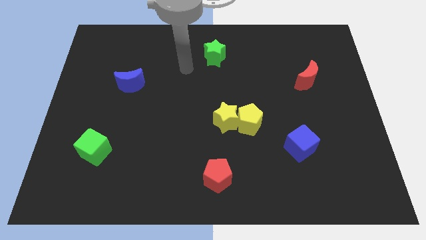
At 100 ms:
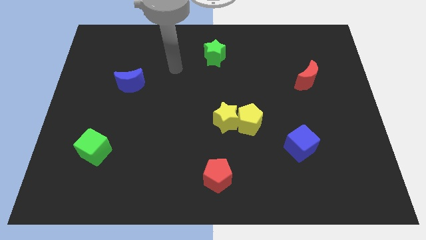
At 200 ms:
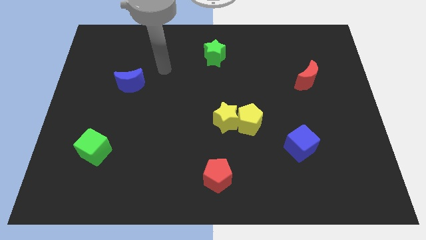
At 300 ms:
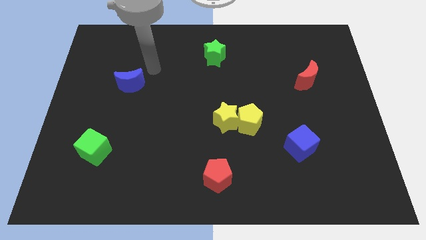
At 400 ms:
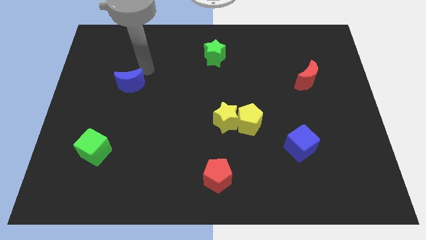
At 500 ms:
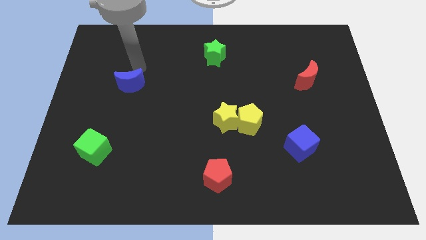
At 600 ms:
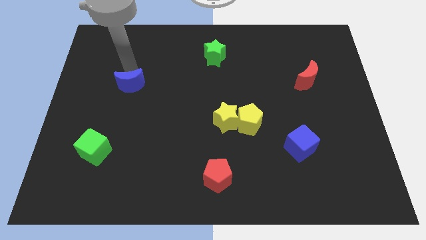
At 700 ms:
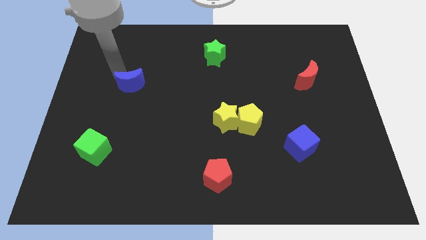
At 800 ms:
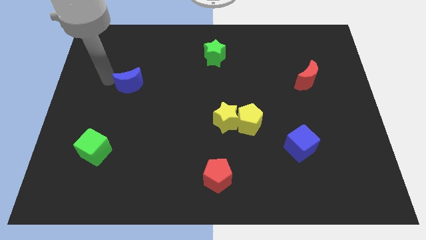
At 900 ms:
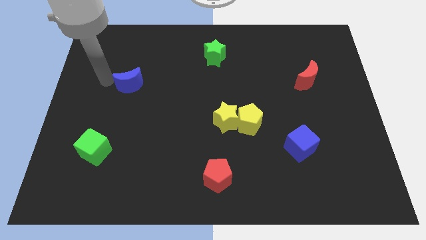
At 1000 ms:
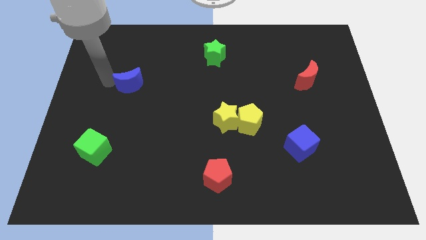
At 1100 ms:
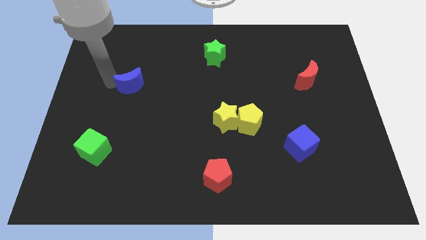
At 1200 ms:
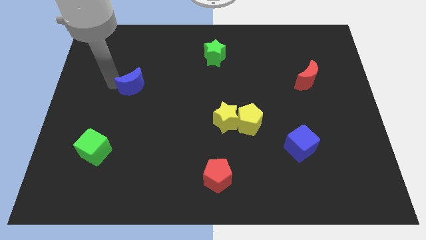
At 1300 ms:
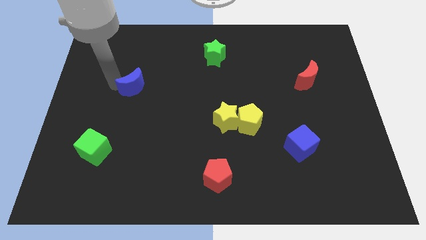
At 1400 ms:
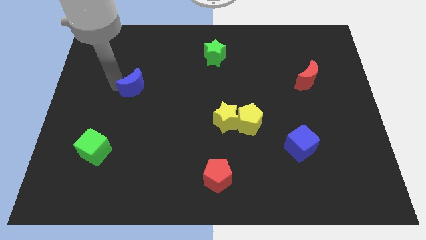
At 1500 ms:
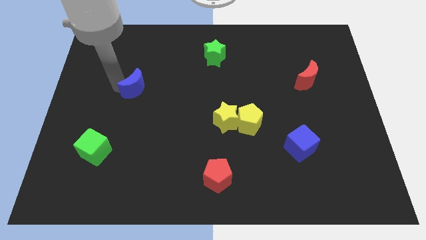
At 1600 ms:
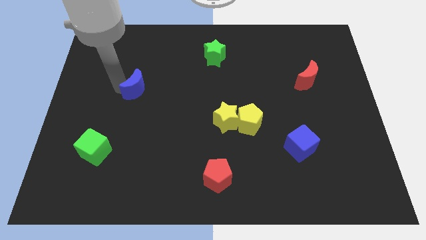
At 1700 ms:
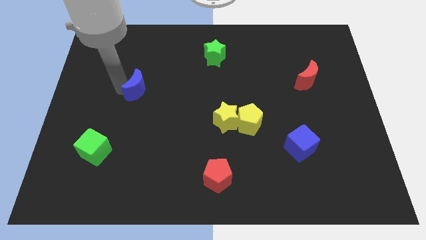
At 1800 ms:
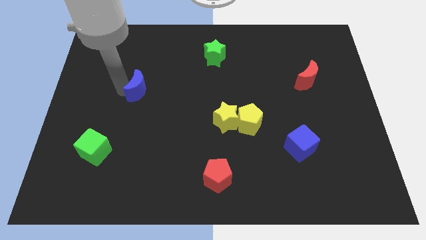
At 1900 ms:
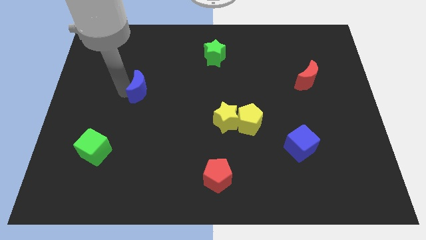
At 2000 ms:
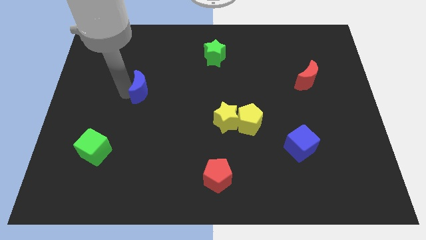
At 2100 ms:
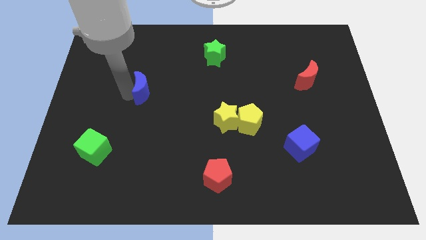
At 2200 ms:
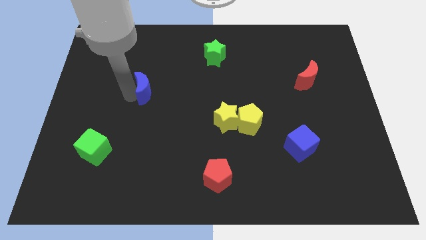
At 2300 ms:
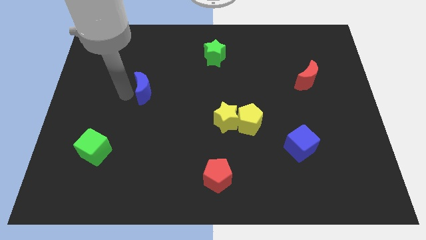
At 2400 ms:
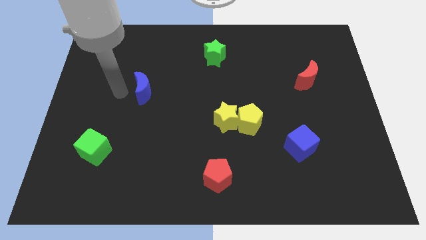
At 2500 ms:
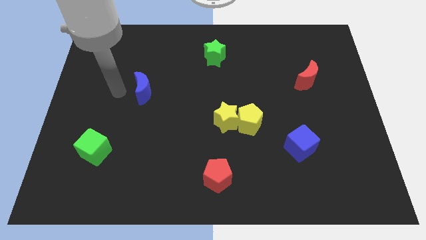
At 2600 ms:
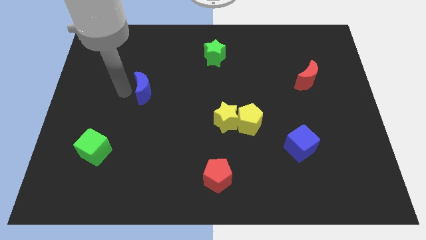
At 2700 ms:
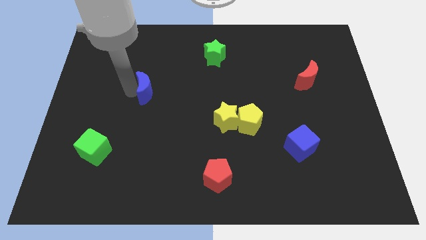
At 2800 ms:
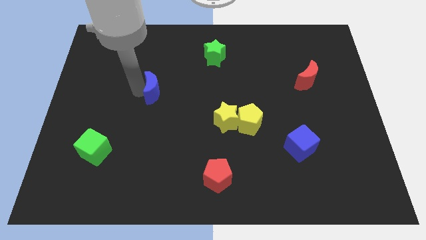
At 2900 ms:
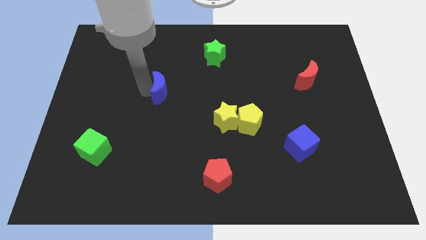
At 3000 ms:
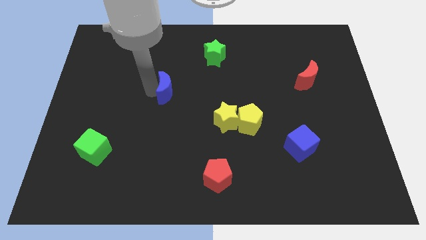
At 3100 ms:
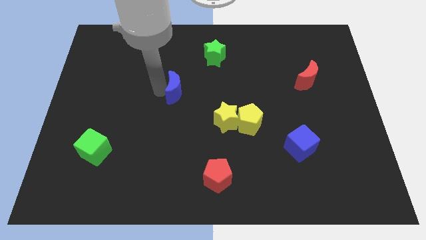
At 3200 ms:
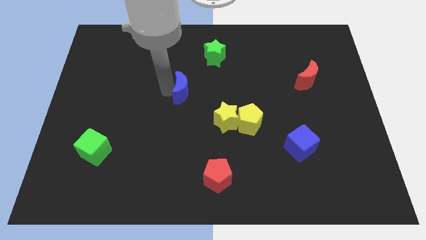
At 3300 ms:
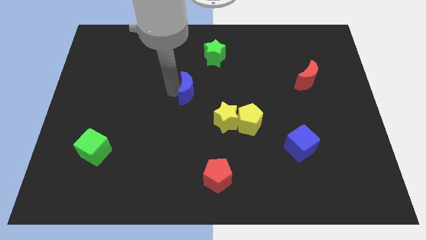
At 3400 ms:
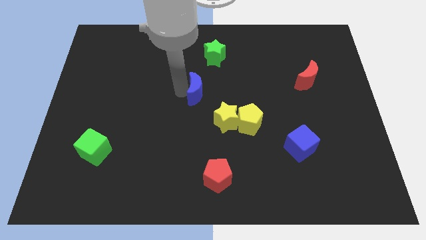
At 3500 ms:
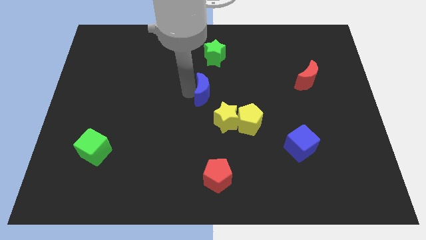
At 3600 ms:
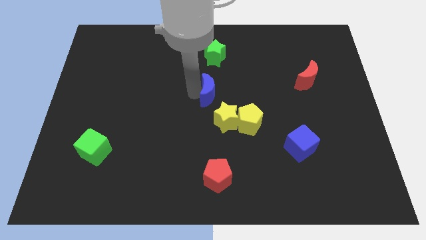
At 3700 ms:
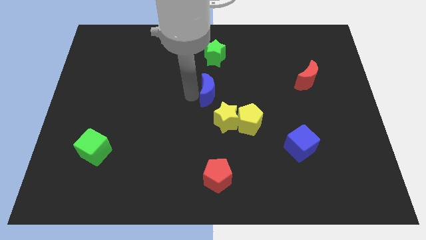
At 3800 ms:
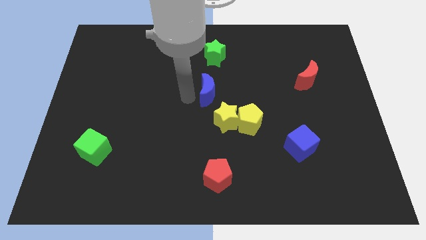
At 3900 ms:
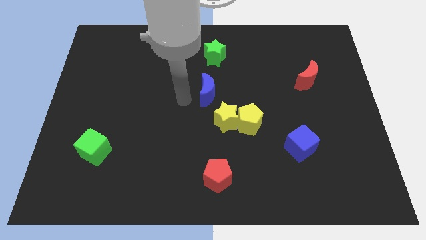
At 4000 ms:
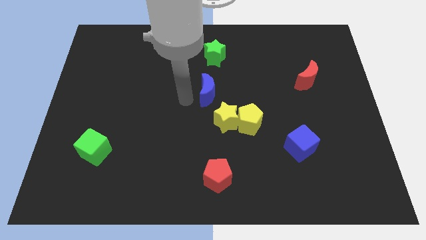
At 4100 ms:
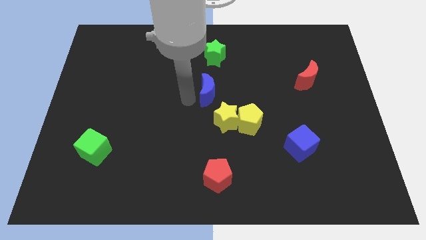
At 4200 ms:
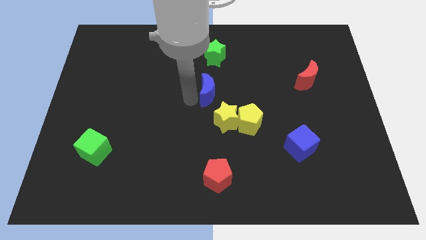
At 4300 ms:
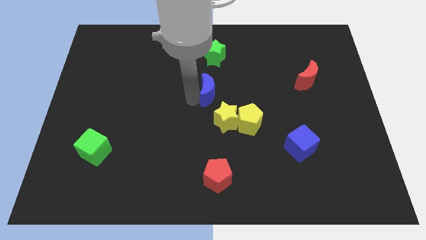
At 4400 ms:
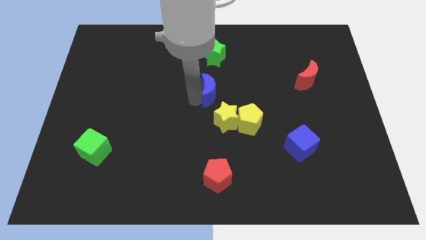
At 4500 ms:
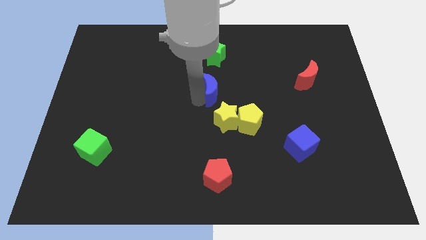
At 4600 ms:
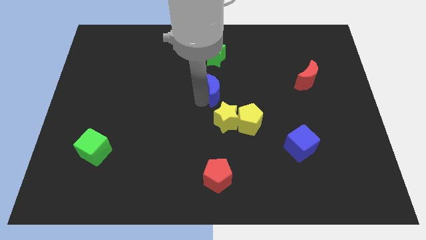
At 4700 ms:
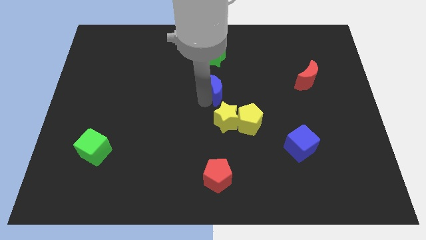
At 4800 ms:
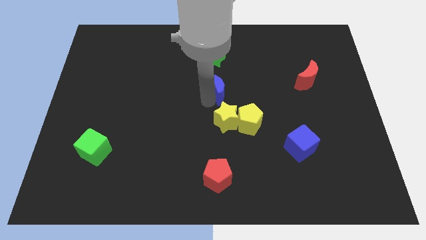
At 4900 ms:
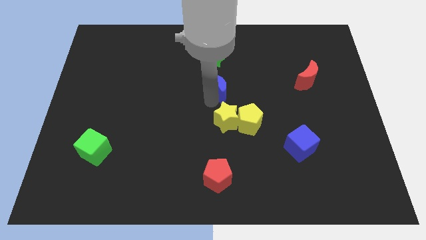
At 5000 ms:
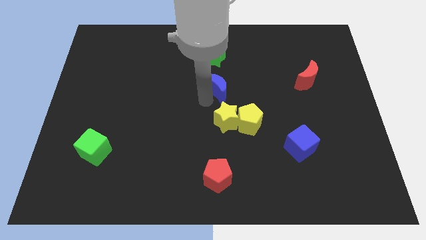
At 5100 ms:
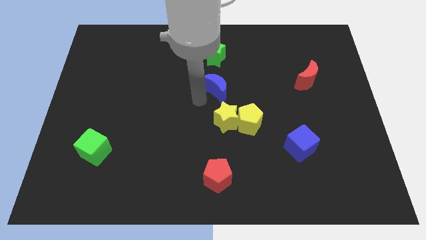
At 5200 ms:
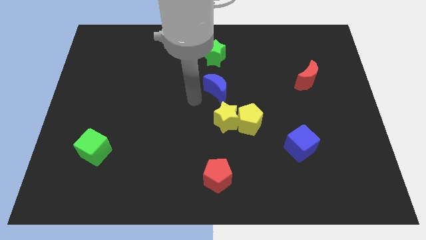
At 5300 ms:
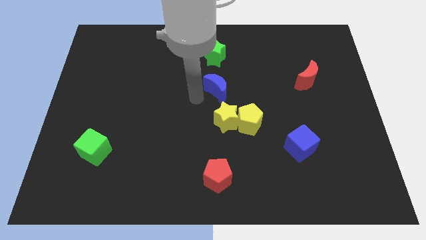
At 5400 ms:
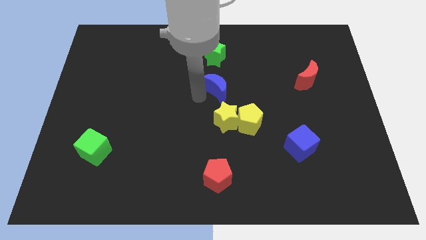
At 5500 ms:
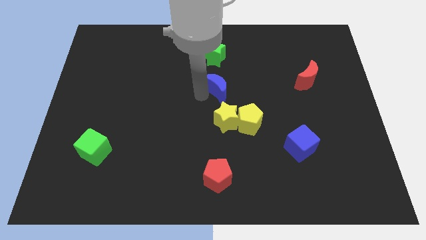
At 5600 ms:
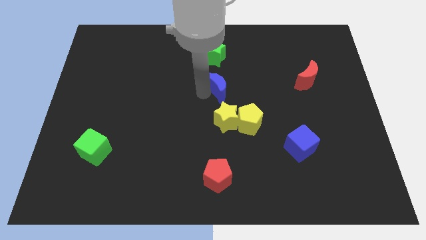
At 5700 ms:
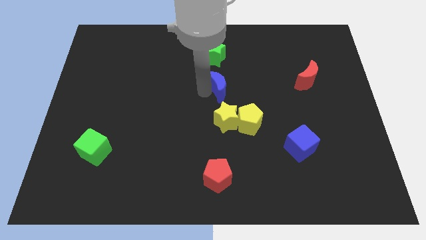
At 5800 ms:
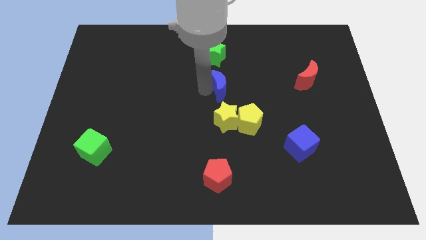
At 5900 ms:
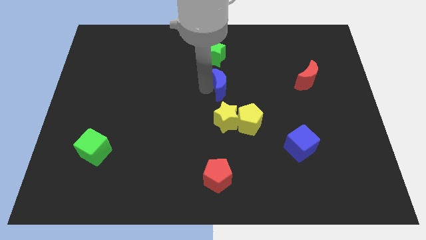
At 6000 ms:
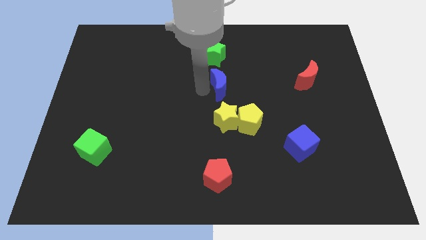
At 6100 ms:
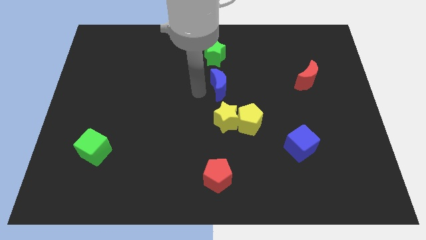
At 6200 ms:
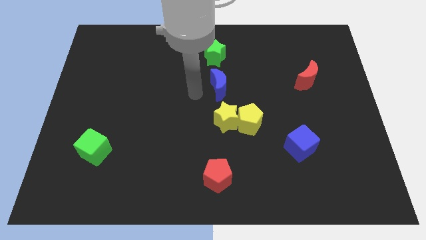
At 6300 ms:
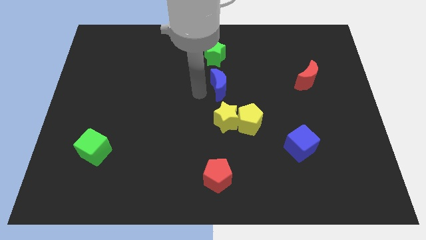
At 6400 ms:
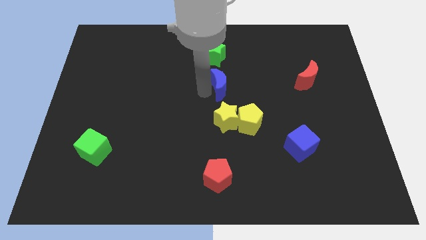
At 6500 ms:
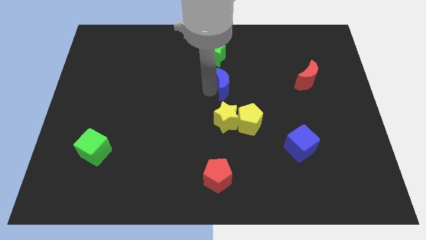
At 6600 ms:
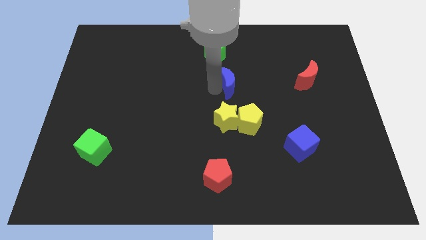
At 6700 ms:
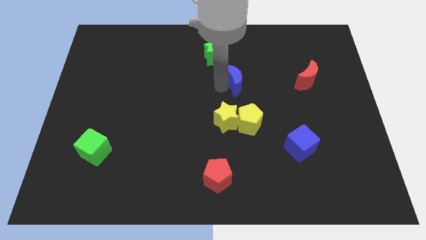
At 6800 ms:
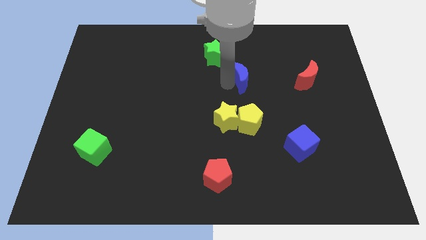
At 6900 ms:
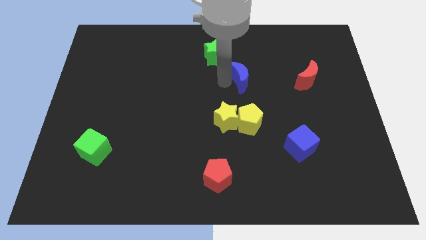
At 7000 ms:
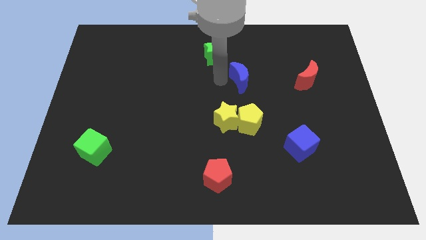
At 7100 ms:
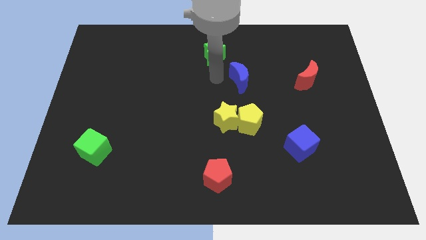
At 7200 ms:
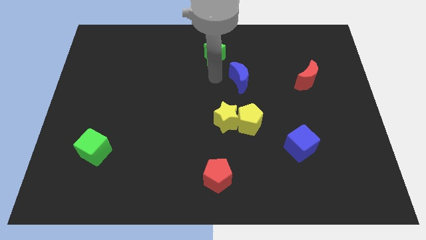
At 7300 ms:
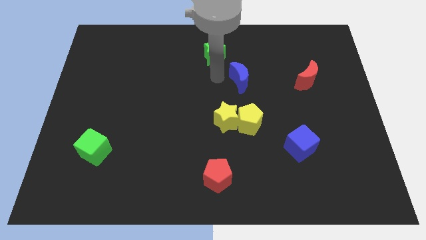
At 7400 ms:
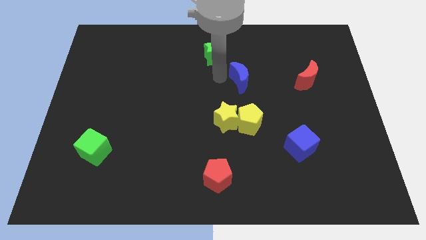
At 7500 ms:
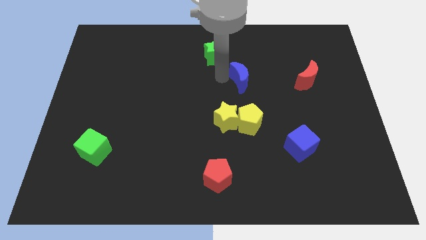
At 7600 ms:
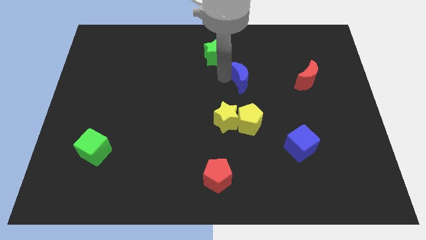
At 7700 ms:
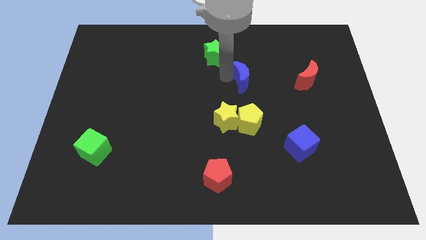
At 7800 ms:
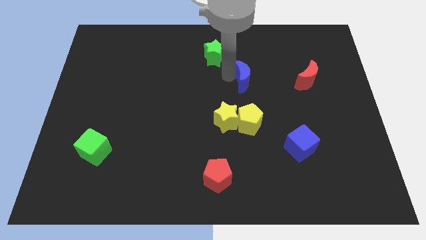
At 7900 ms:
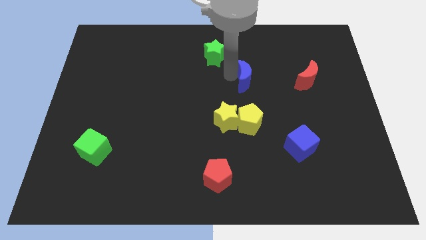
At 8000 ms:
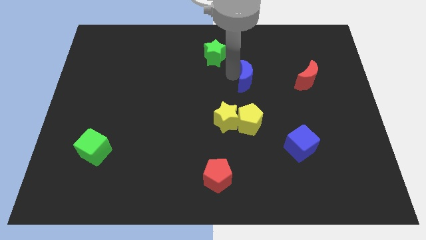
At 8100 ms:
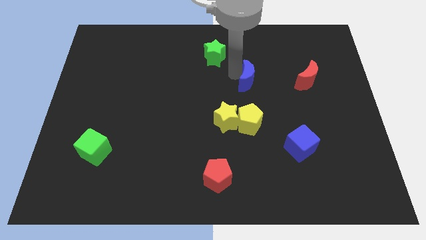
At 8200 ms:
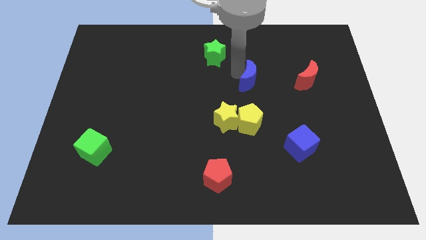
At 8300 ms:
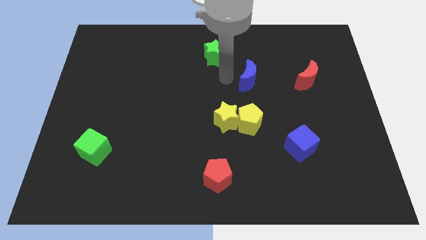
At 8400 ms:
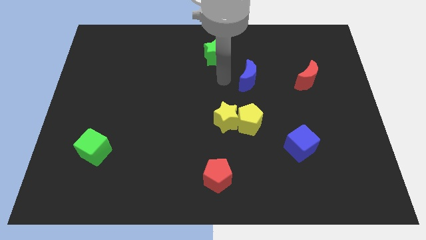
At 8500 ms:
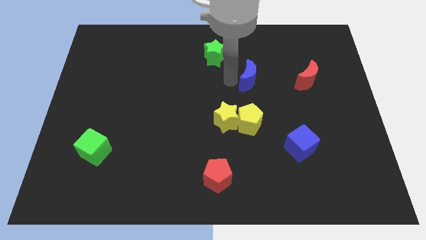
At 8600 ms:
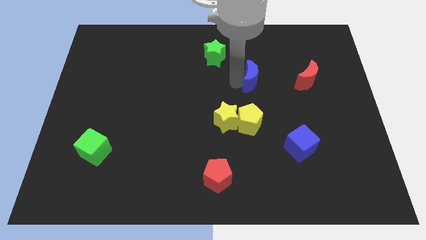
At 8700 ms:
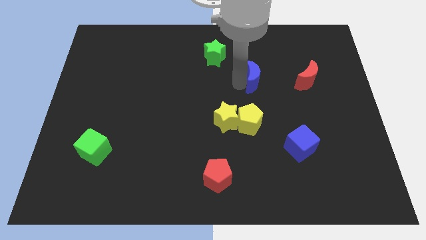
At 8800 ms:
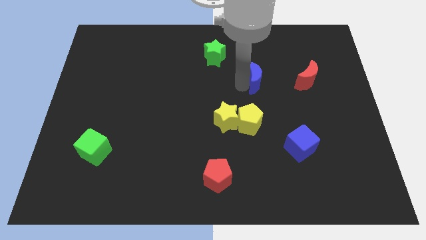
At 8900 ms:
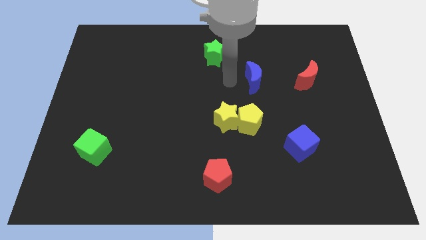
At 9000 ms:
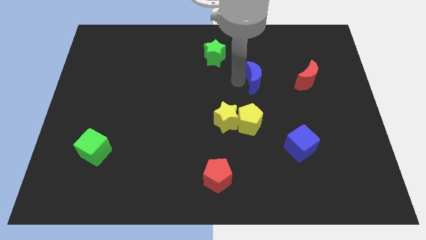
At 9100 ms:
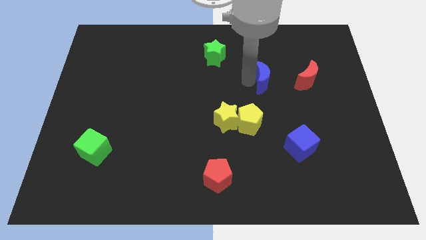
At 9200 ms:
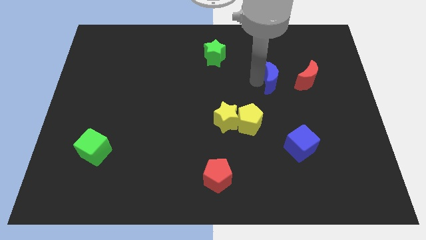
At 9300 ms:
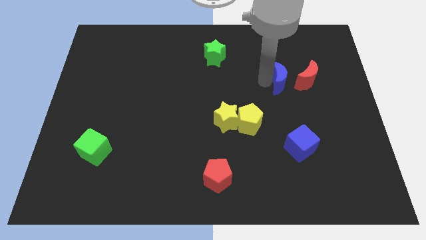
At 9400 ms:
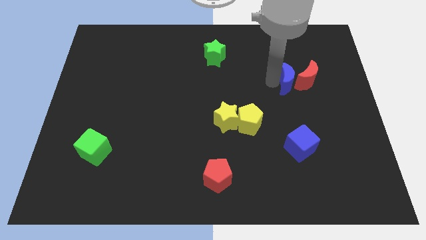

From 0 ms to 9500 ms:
move the blue moon next to the red moon
